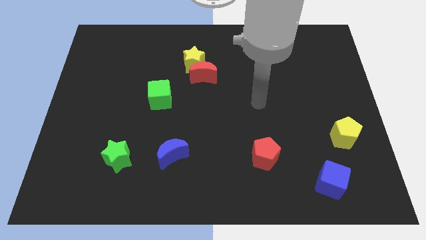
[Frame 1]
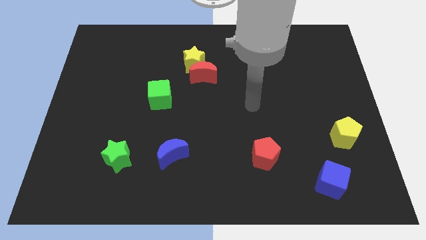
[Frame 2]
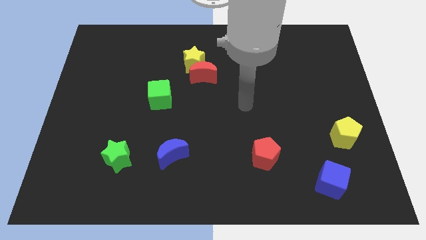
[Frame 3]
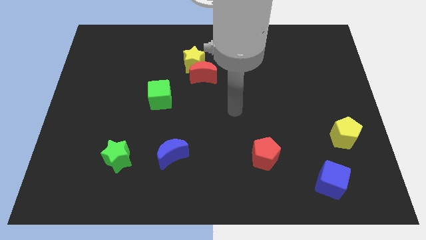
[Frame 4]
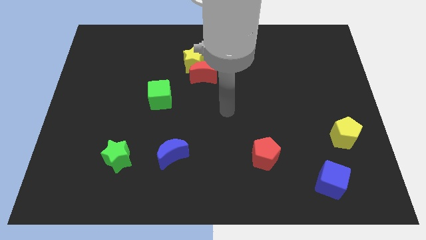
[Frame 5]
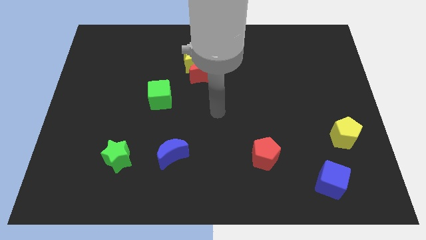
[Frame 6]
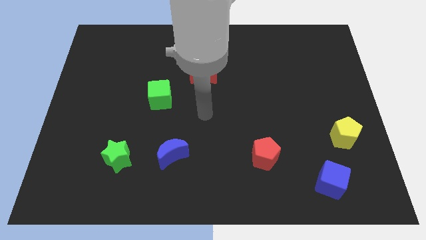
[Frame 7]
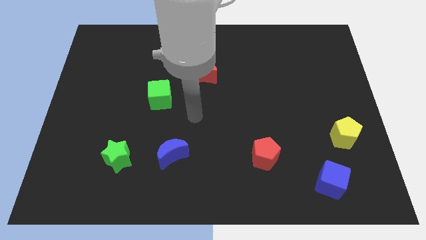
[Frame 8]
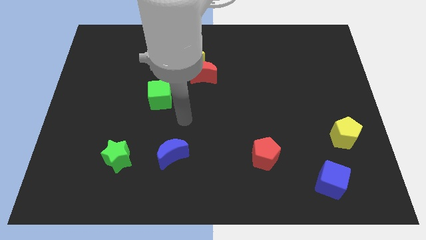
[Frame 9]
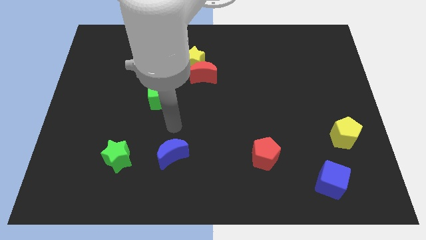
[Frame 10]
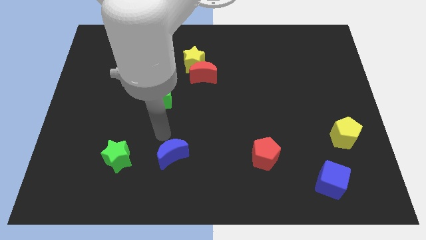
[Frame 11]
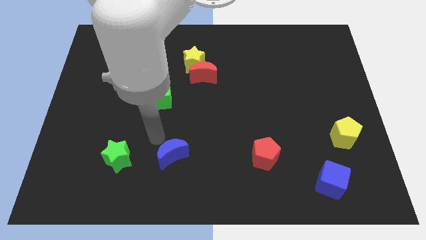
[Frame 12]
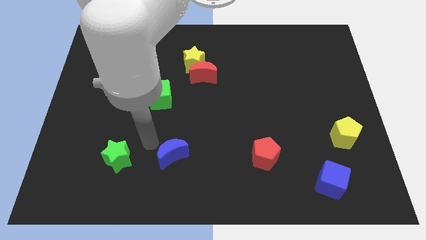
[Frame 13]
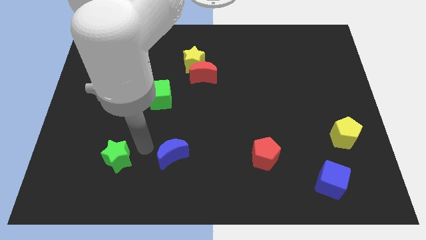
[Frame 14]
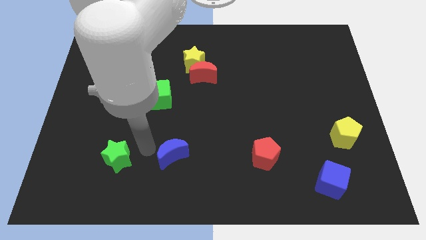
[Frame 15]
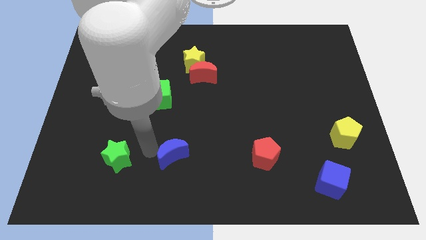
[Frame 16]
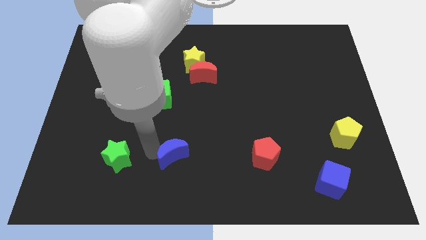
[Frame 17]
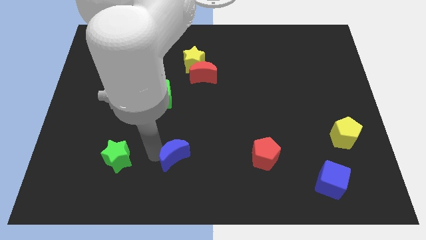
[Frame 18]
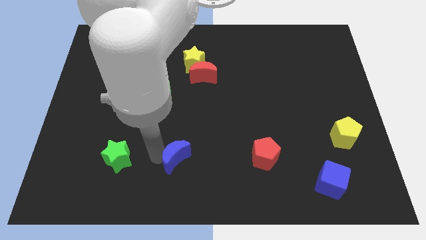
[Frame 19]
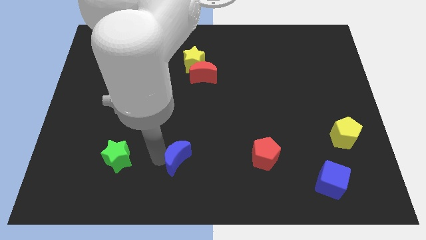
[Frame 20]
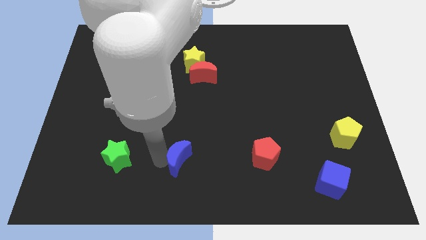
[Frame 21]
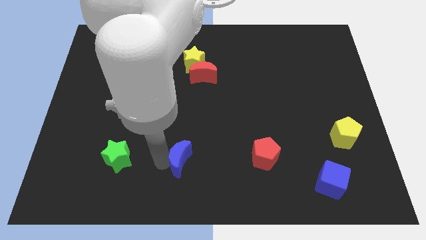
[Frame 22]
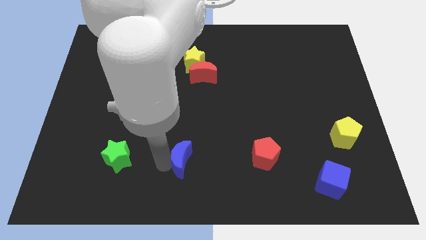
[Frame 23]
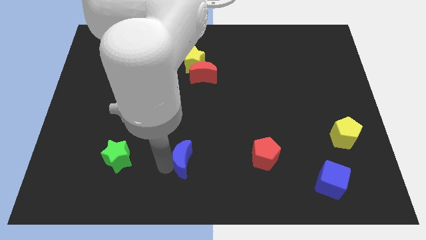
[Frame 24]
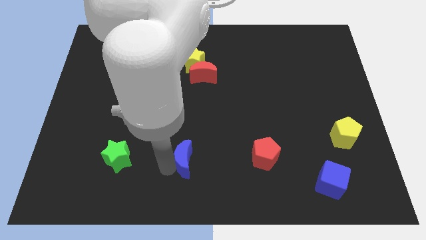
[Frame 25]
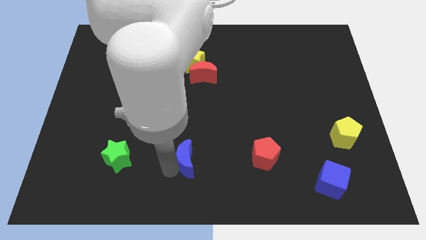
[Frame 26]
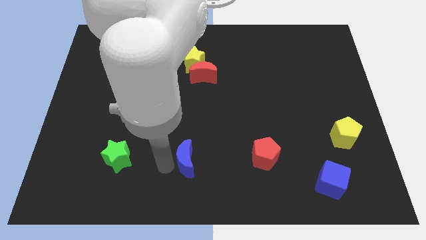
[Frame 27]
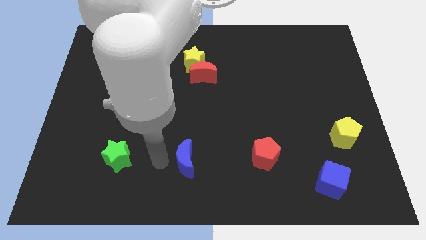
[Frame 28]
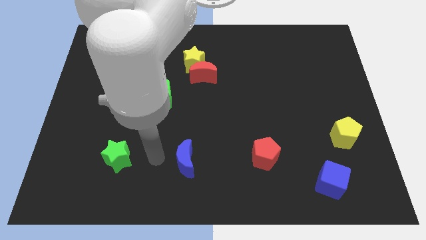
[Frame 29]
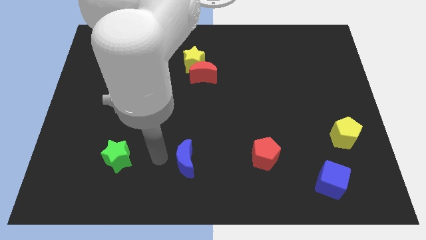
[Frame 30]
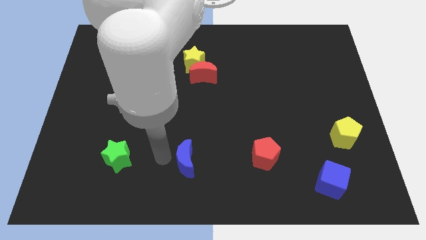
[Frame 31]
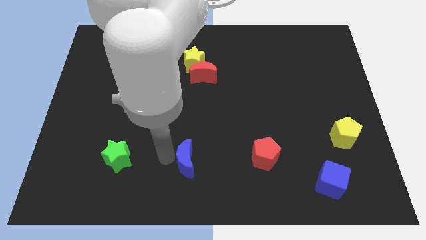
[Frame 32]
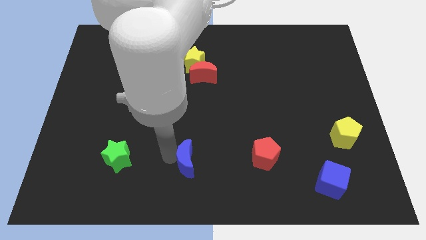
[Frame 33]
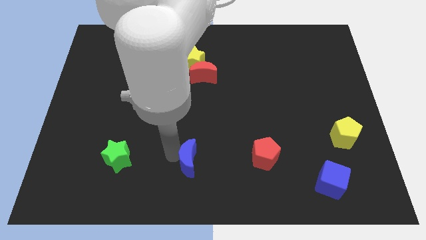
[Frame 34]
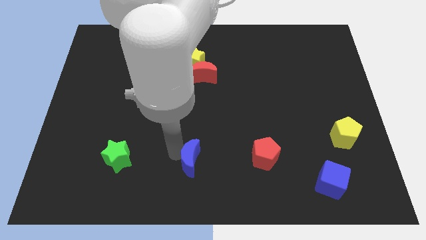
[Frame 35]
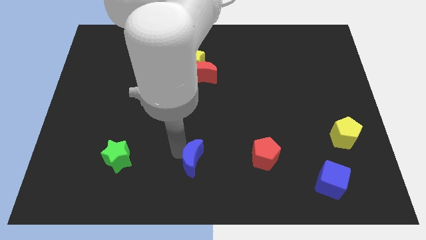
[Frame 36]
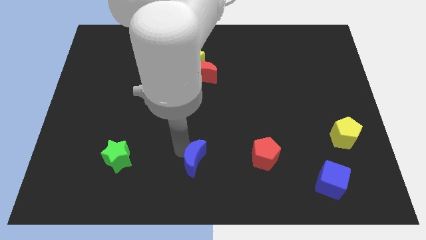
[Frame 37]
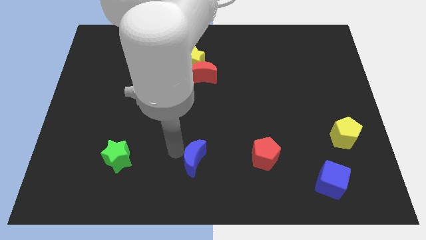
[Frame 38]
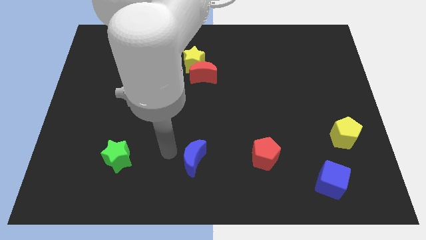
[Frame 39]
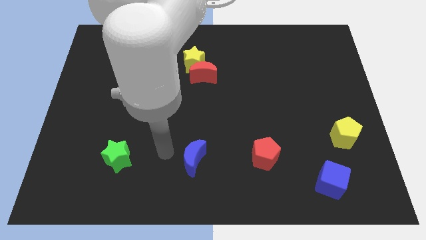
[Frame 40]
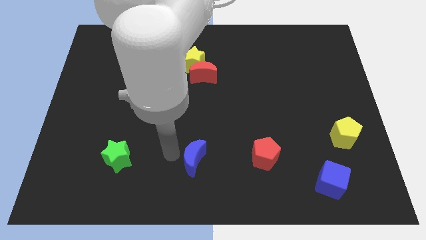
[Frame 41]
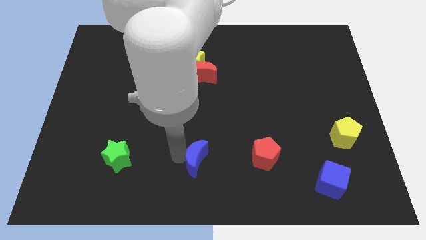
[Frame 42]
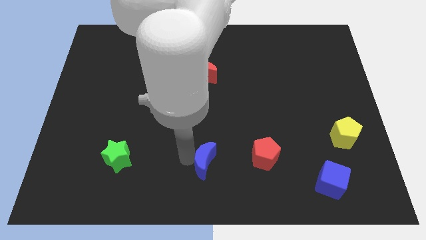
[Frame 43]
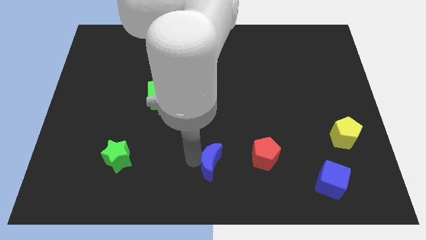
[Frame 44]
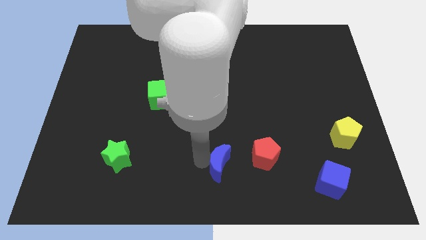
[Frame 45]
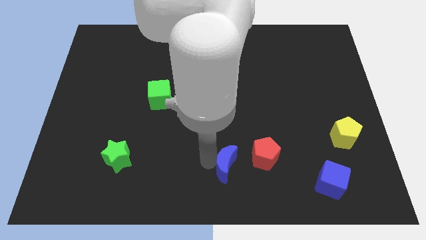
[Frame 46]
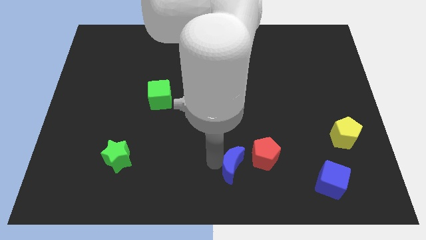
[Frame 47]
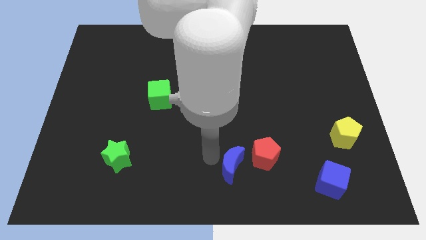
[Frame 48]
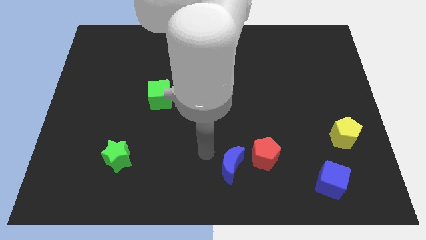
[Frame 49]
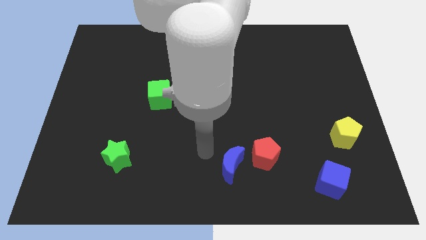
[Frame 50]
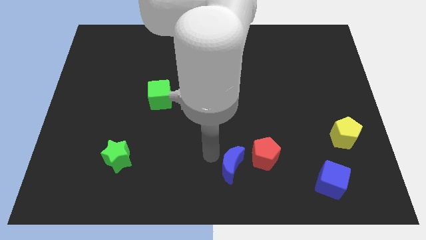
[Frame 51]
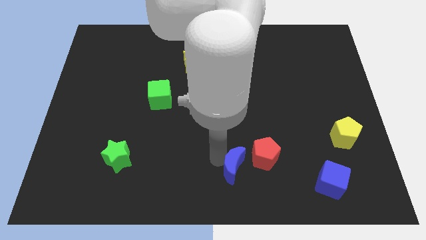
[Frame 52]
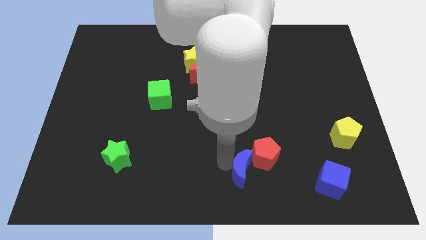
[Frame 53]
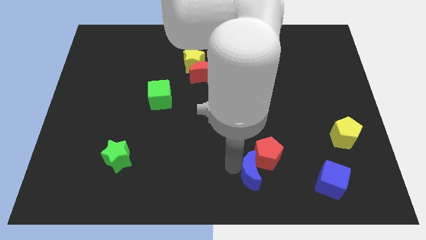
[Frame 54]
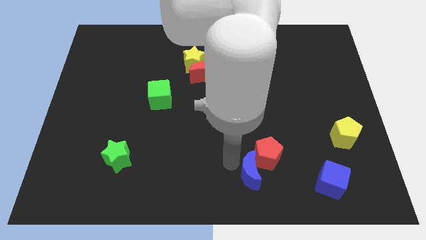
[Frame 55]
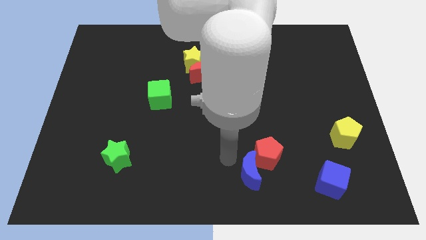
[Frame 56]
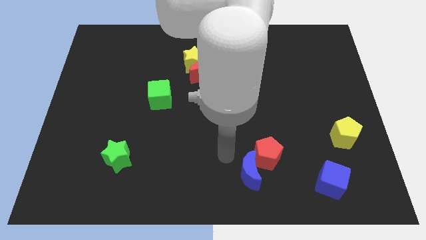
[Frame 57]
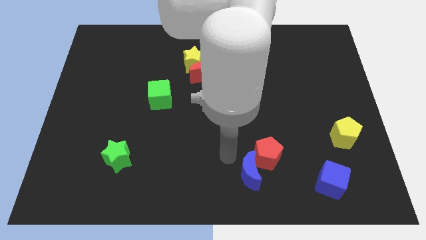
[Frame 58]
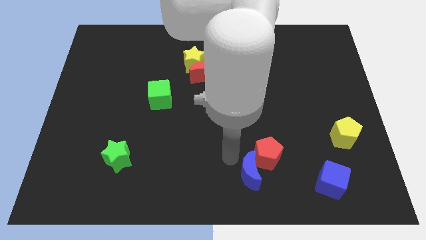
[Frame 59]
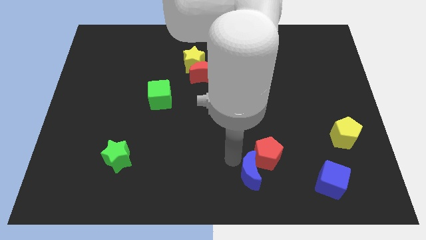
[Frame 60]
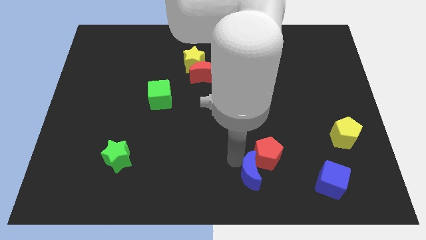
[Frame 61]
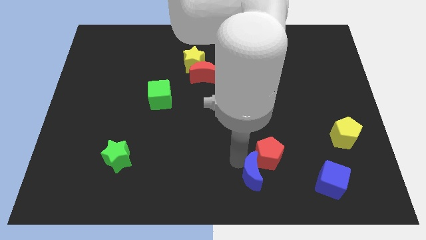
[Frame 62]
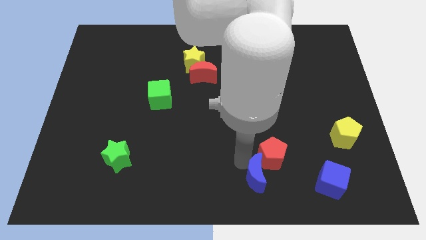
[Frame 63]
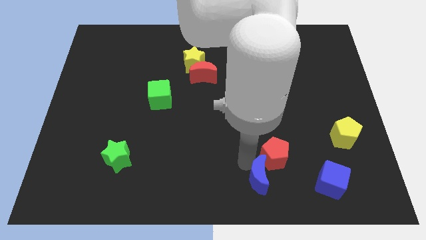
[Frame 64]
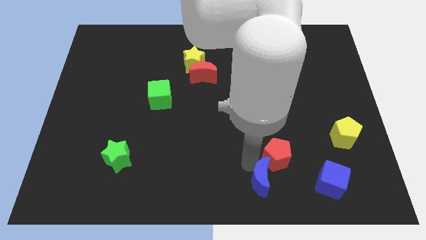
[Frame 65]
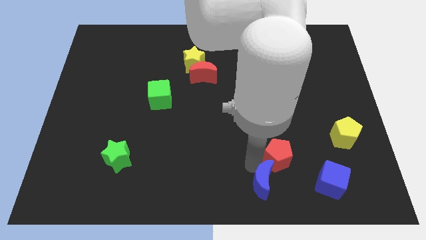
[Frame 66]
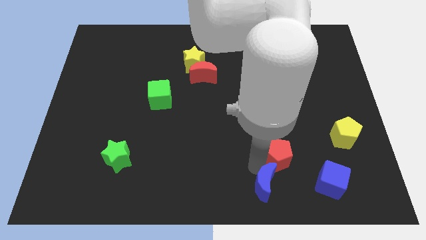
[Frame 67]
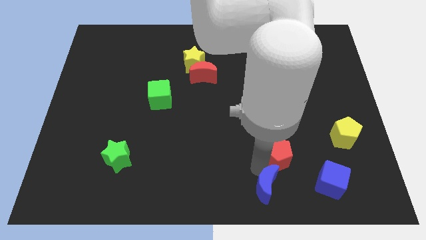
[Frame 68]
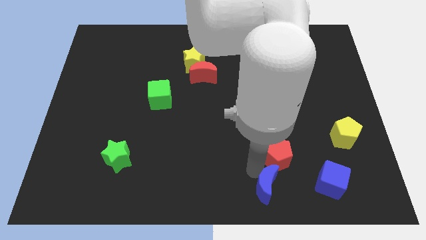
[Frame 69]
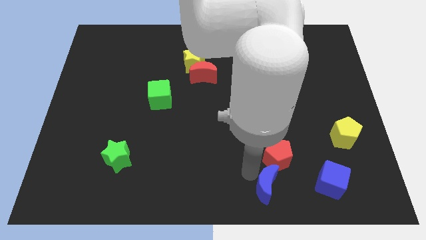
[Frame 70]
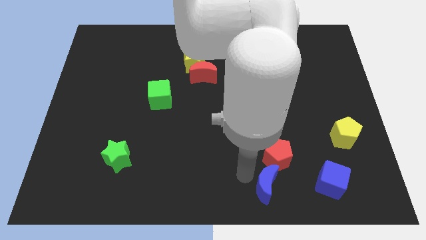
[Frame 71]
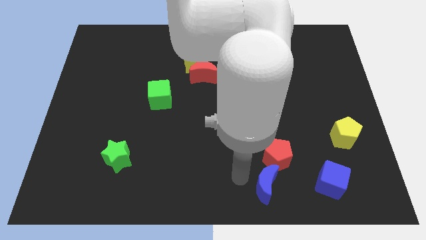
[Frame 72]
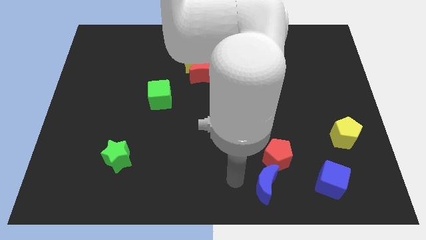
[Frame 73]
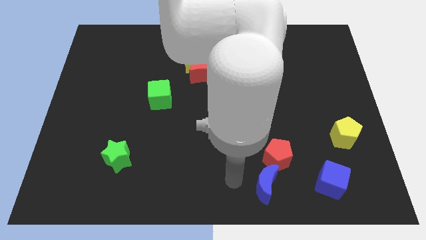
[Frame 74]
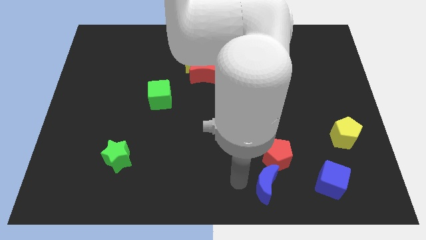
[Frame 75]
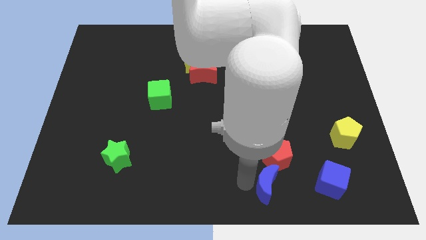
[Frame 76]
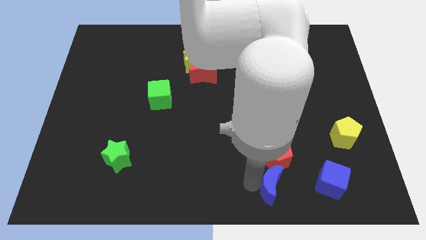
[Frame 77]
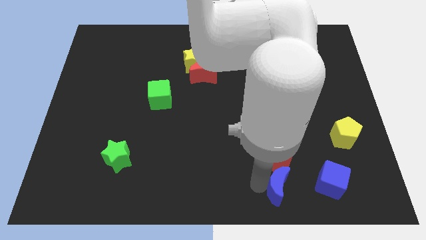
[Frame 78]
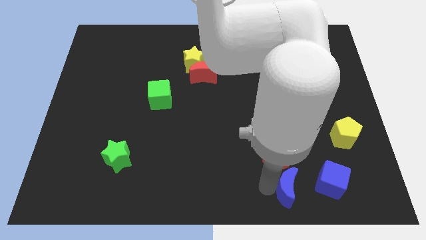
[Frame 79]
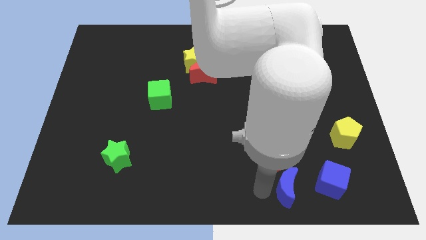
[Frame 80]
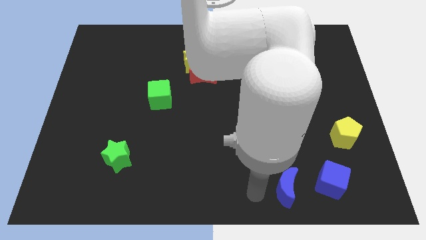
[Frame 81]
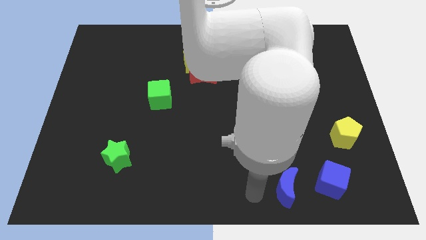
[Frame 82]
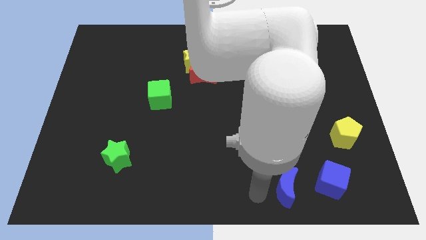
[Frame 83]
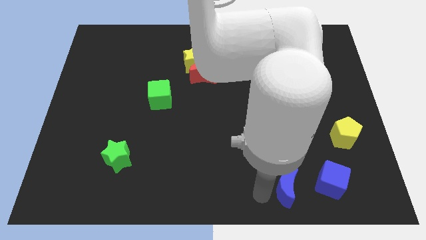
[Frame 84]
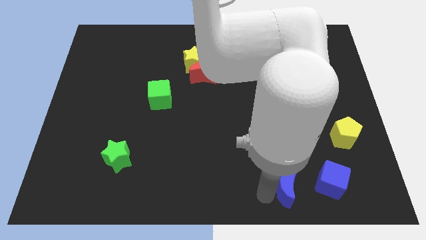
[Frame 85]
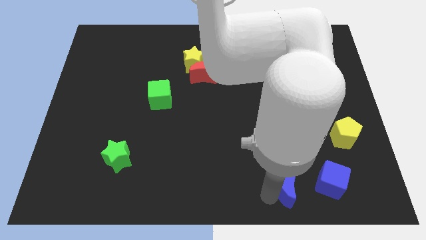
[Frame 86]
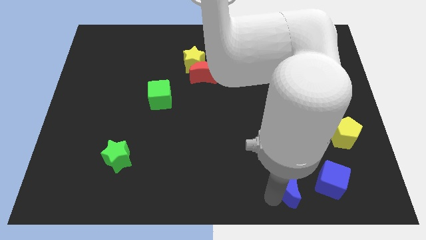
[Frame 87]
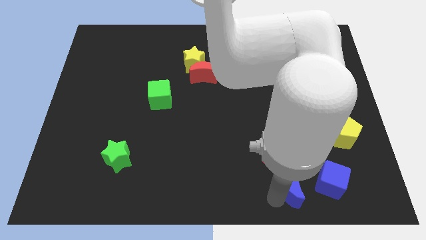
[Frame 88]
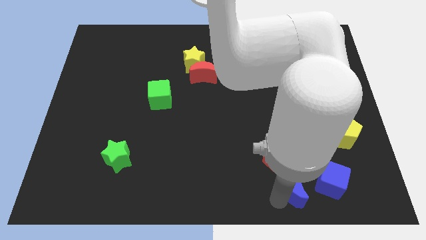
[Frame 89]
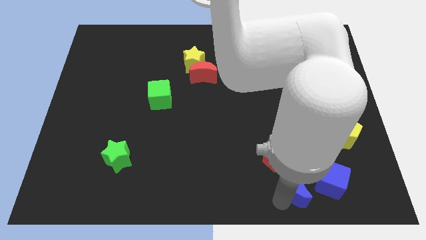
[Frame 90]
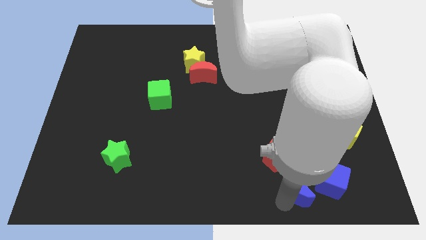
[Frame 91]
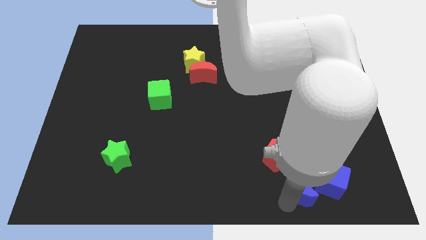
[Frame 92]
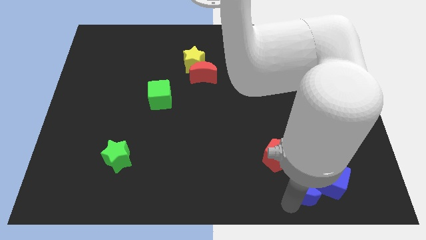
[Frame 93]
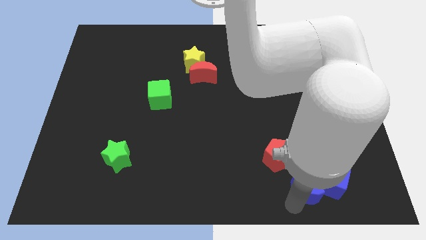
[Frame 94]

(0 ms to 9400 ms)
slide the blue moon to the blue cube
